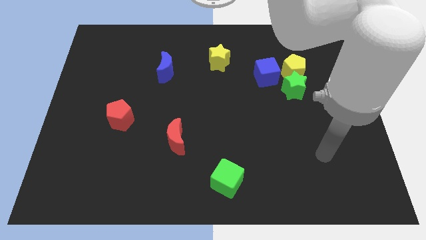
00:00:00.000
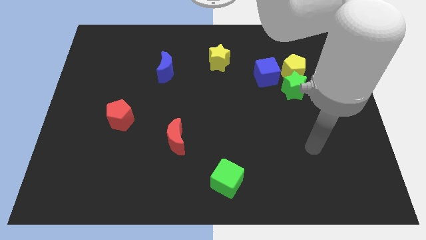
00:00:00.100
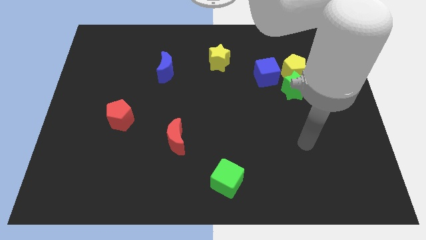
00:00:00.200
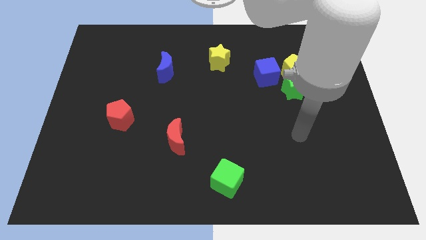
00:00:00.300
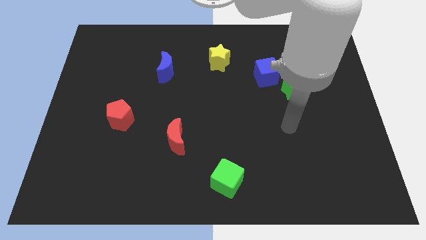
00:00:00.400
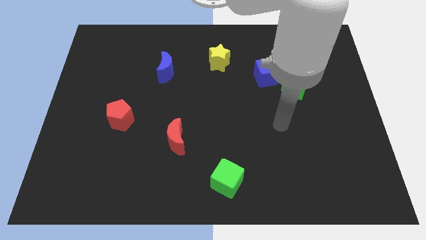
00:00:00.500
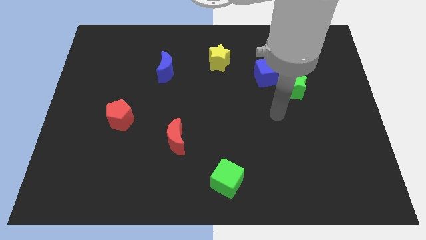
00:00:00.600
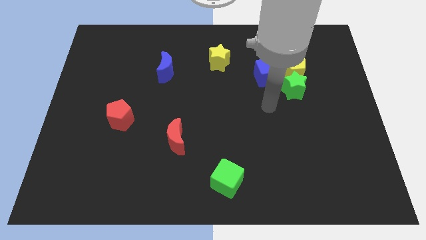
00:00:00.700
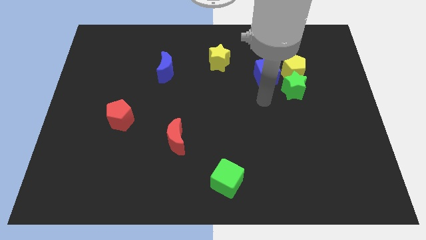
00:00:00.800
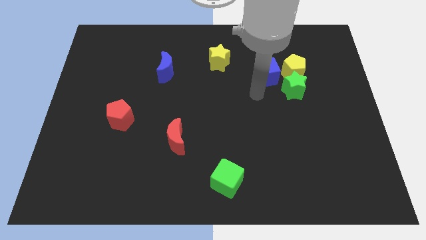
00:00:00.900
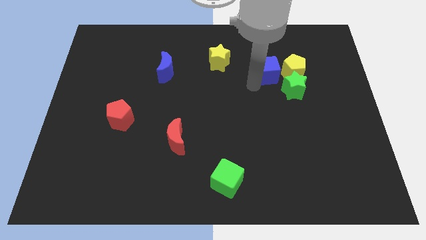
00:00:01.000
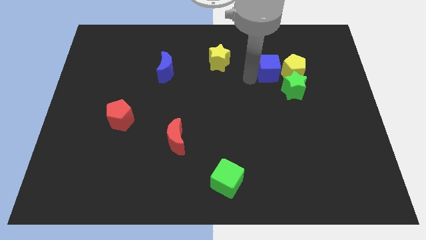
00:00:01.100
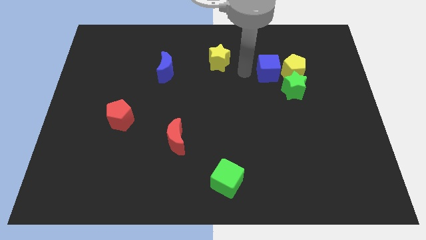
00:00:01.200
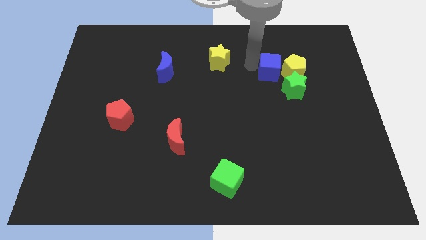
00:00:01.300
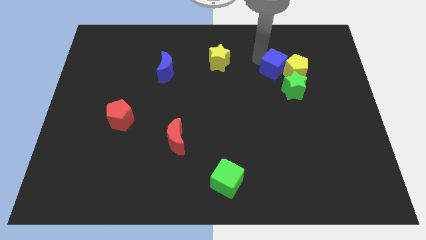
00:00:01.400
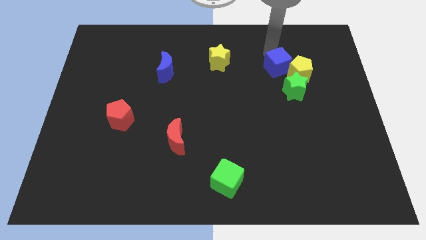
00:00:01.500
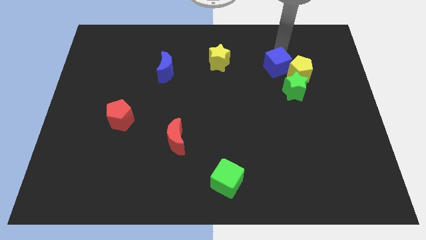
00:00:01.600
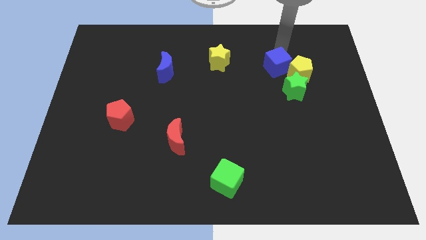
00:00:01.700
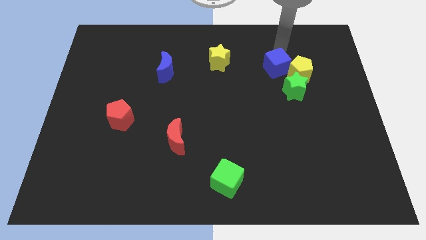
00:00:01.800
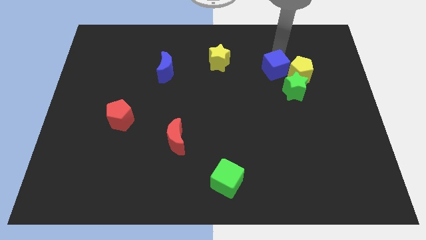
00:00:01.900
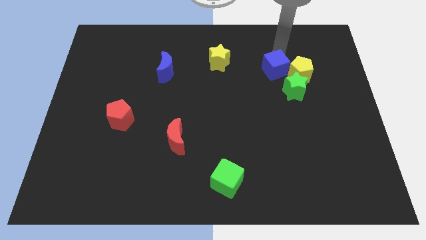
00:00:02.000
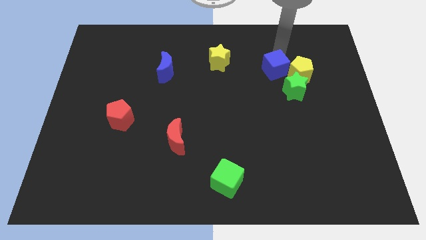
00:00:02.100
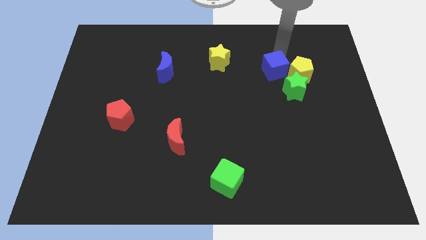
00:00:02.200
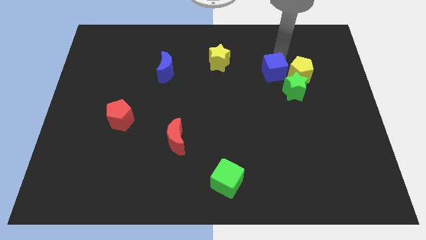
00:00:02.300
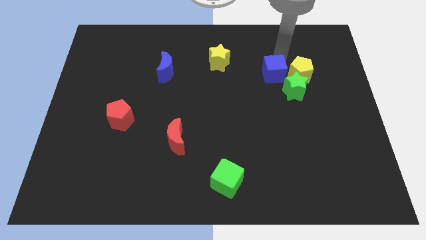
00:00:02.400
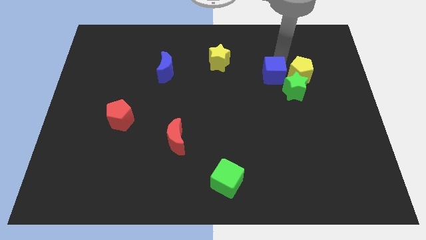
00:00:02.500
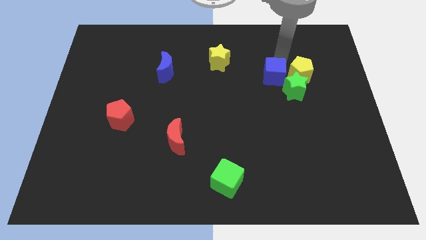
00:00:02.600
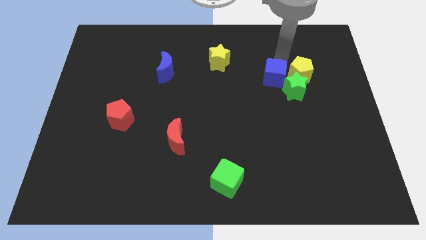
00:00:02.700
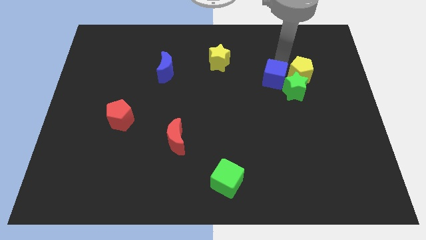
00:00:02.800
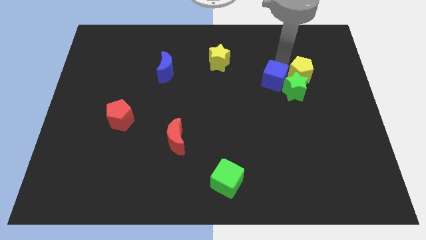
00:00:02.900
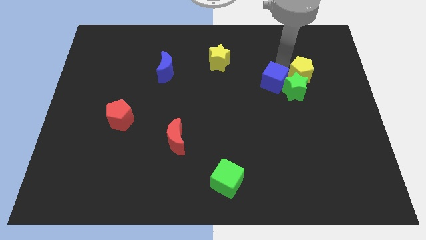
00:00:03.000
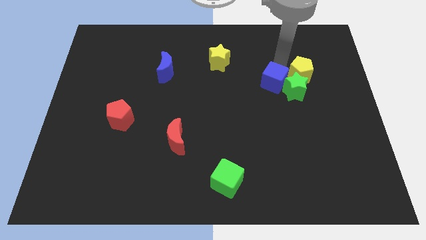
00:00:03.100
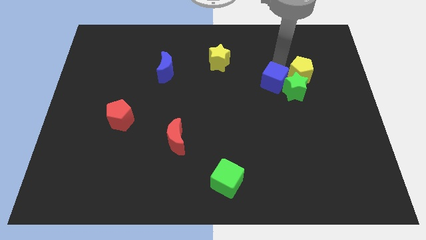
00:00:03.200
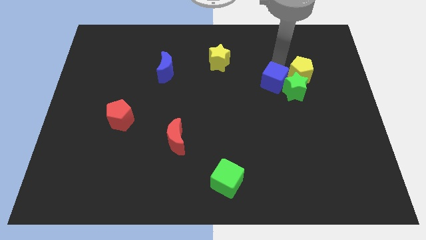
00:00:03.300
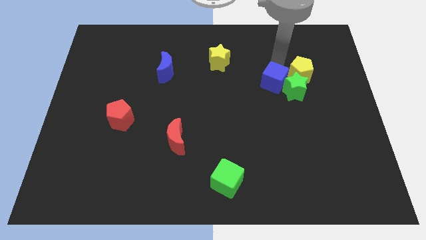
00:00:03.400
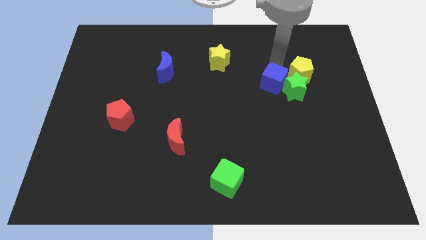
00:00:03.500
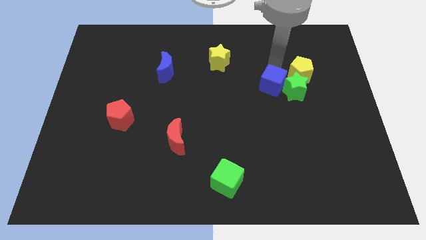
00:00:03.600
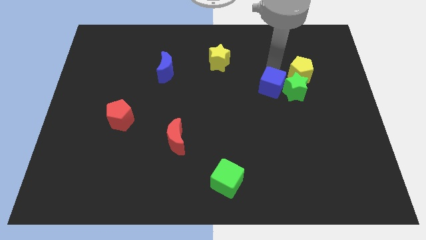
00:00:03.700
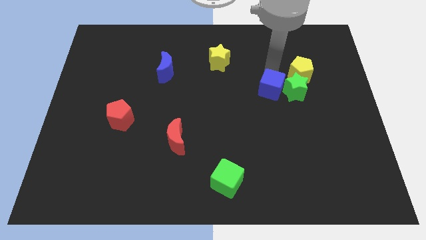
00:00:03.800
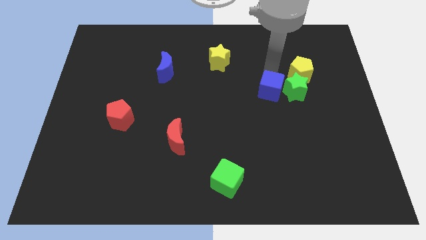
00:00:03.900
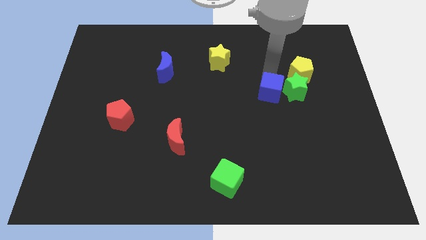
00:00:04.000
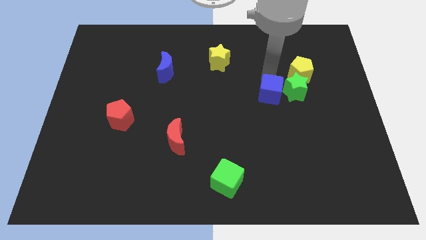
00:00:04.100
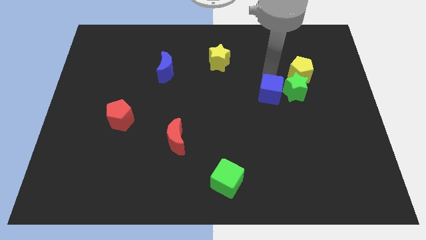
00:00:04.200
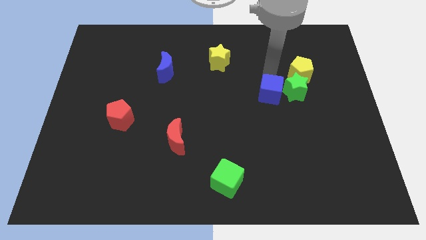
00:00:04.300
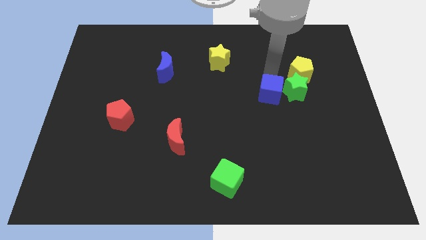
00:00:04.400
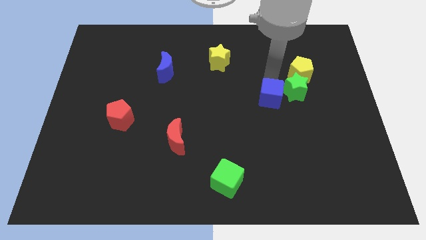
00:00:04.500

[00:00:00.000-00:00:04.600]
move the blue cube slightly downwards

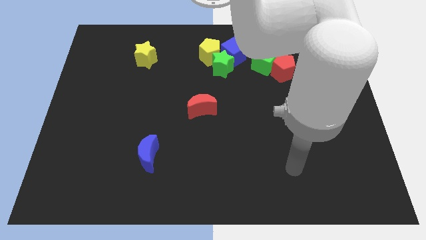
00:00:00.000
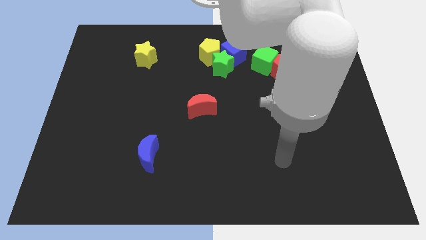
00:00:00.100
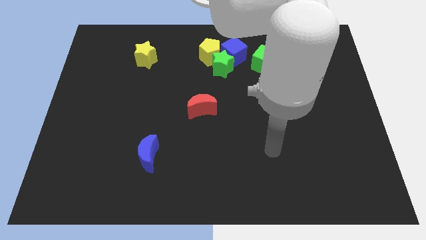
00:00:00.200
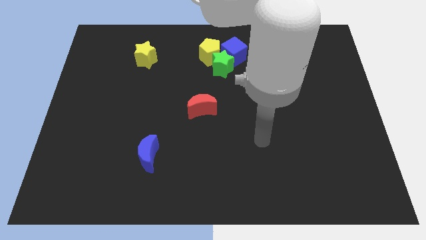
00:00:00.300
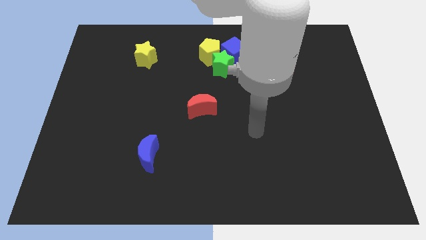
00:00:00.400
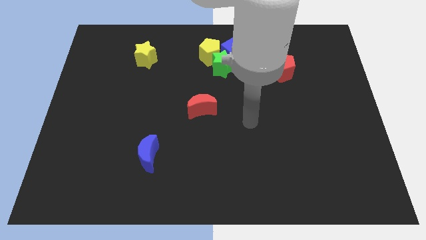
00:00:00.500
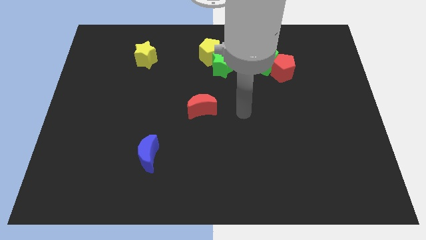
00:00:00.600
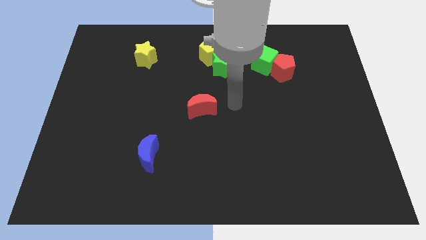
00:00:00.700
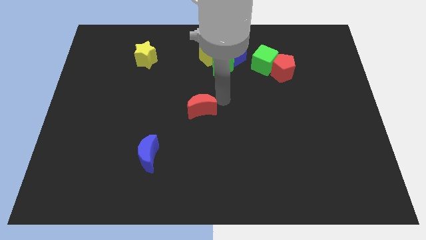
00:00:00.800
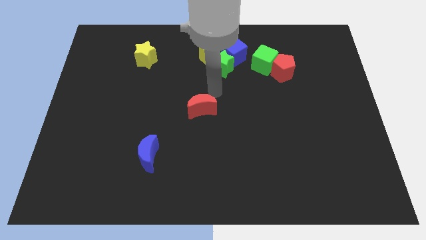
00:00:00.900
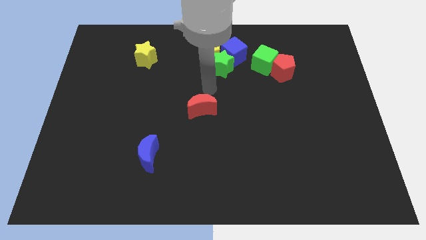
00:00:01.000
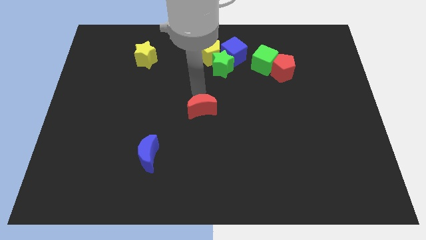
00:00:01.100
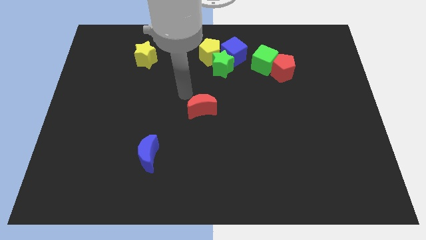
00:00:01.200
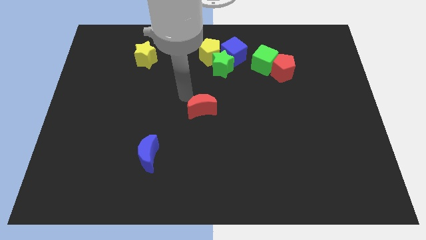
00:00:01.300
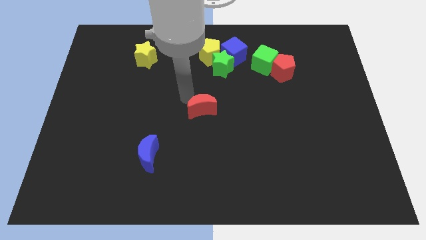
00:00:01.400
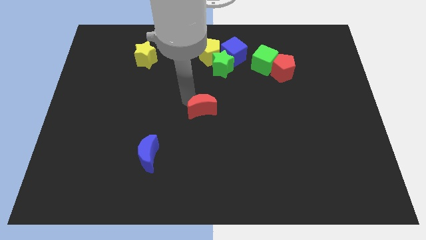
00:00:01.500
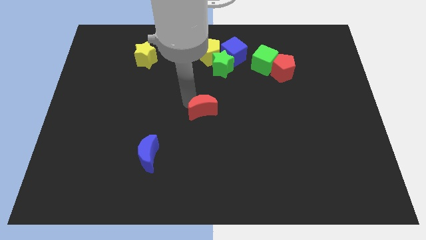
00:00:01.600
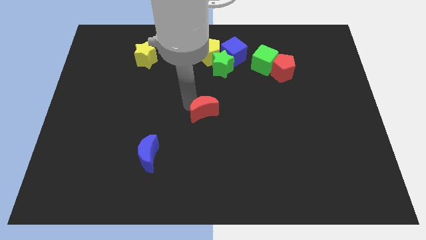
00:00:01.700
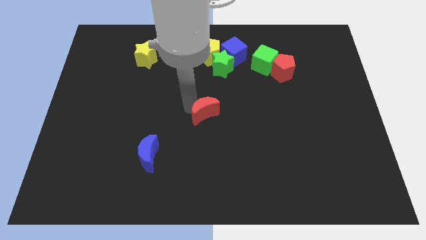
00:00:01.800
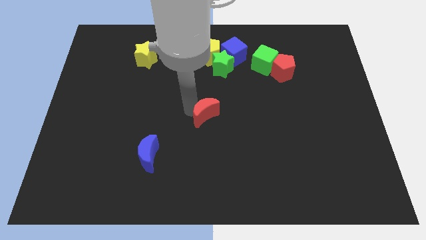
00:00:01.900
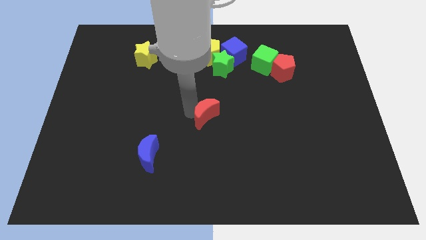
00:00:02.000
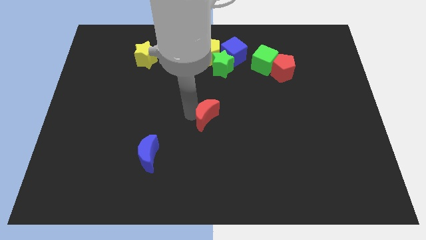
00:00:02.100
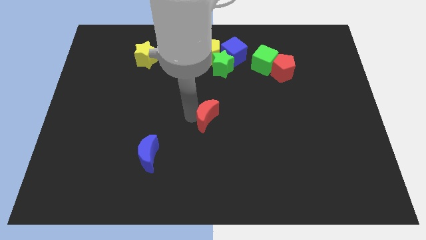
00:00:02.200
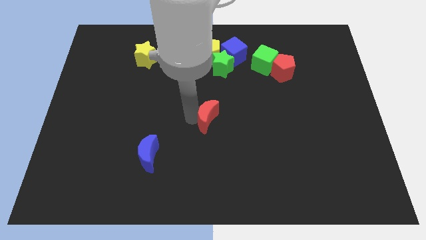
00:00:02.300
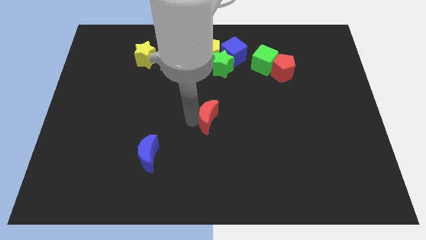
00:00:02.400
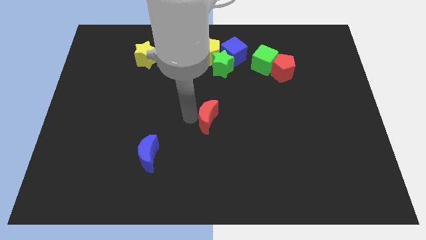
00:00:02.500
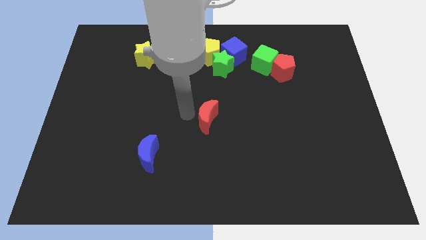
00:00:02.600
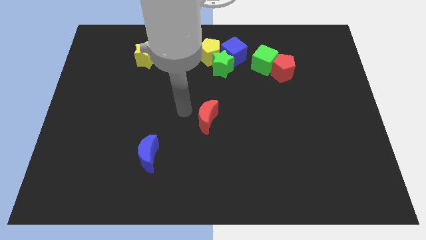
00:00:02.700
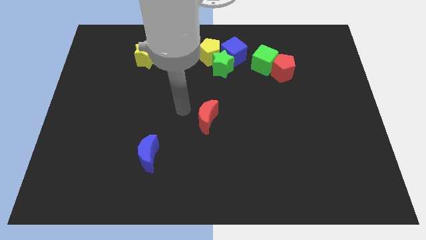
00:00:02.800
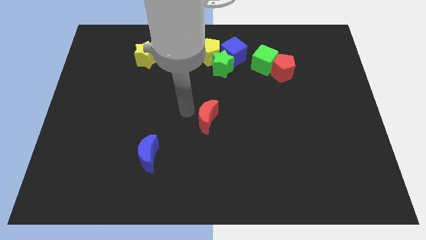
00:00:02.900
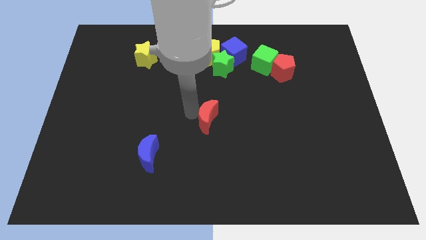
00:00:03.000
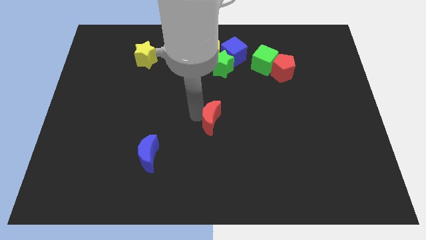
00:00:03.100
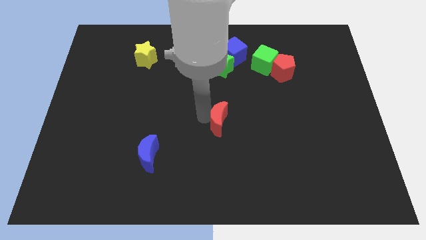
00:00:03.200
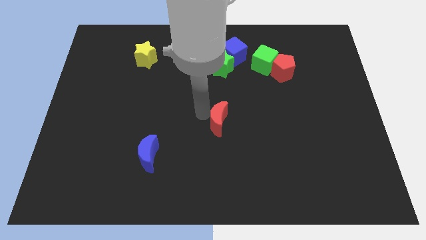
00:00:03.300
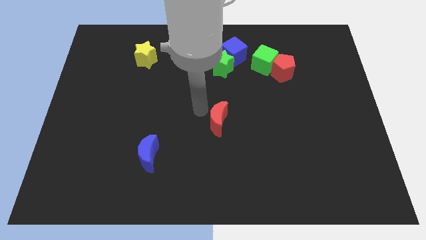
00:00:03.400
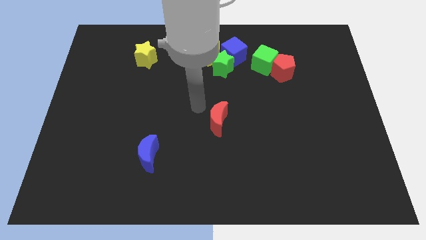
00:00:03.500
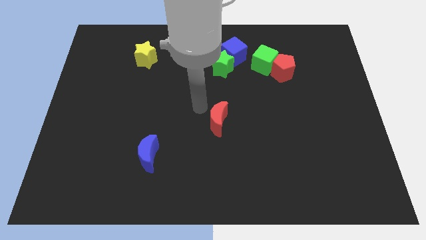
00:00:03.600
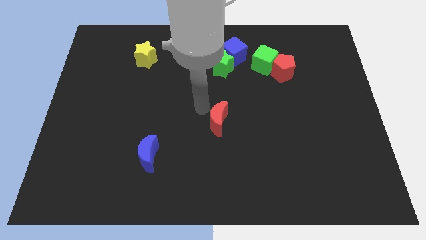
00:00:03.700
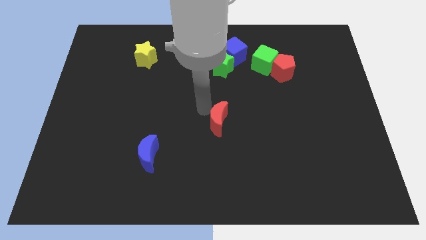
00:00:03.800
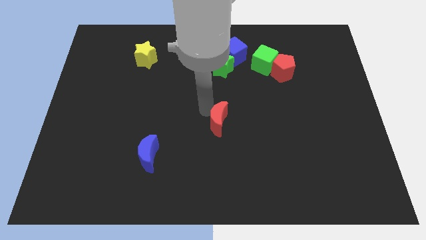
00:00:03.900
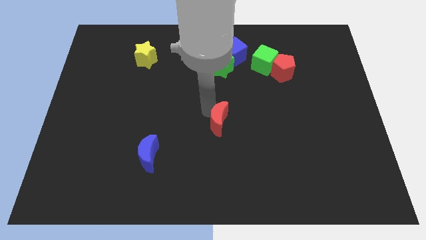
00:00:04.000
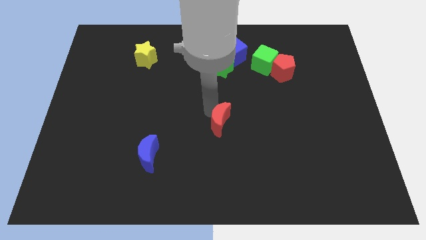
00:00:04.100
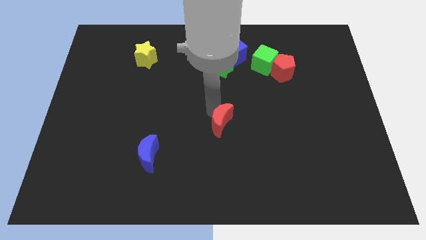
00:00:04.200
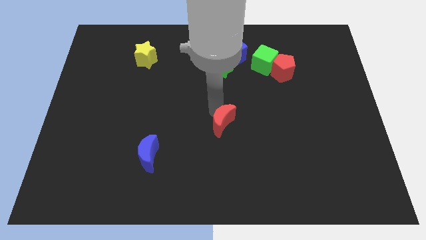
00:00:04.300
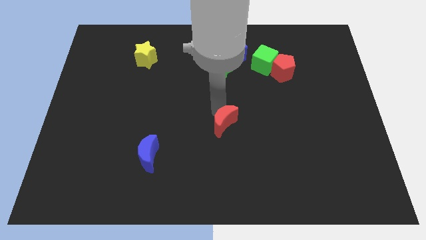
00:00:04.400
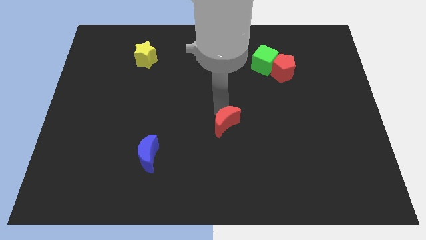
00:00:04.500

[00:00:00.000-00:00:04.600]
move the red moon a little diagonally downwards and right
